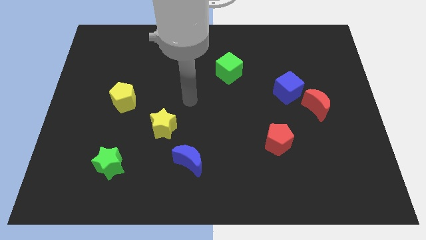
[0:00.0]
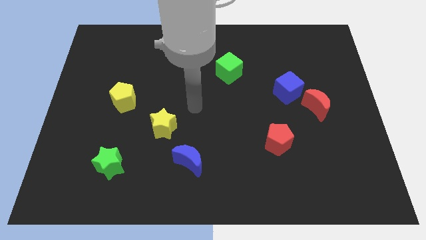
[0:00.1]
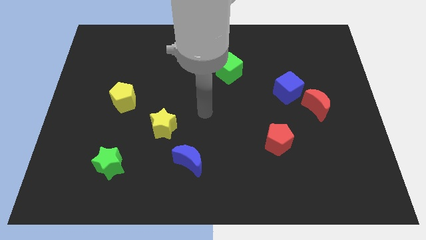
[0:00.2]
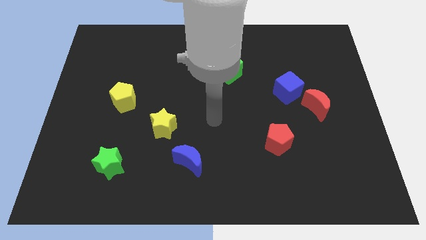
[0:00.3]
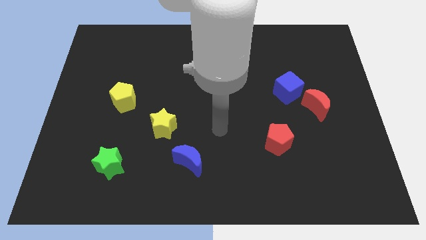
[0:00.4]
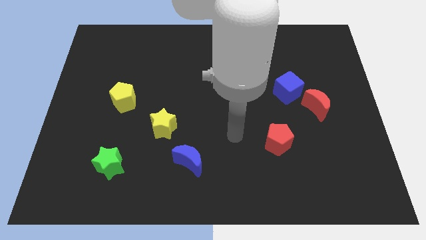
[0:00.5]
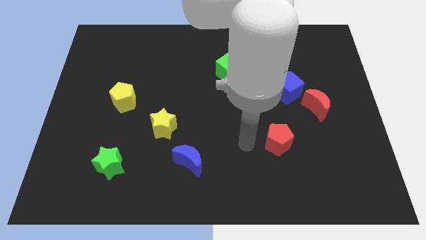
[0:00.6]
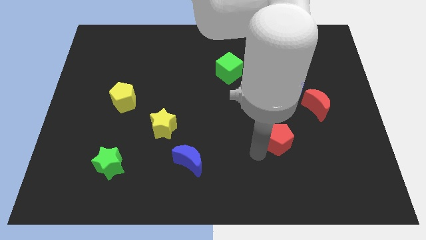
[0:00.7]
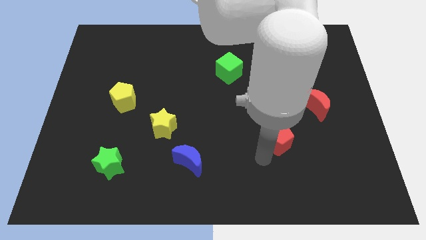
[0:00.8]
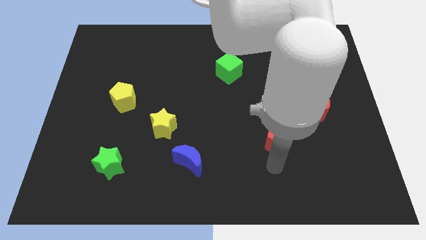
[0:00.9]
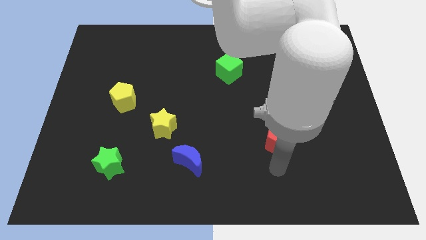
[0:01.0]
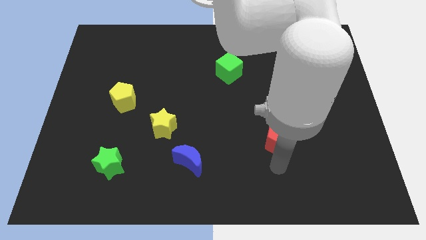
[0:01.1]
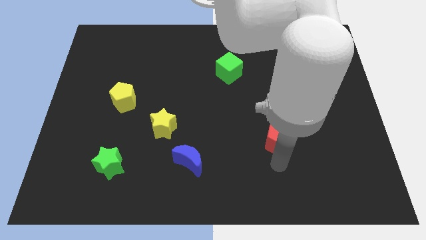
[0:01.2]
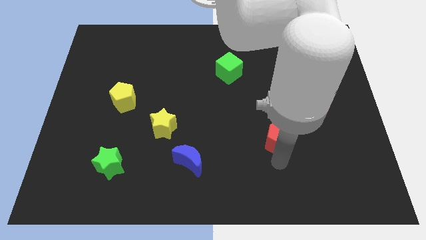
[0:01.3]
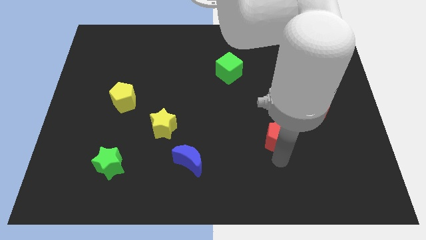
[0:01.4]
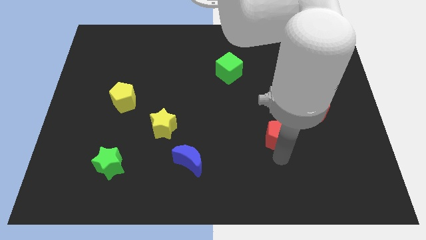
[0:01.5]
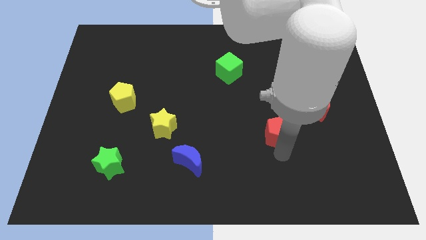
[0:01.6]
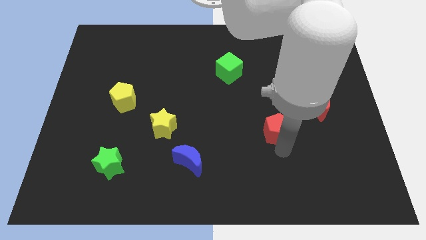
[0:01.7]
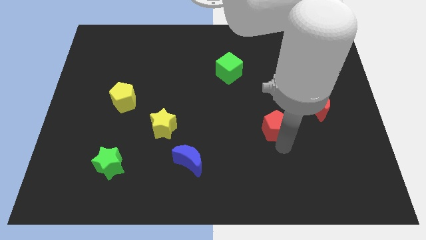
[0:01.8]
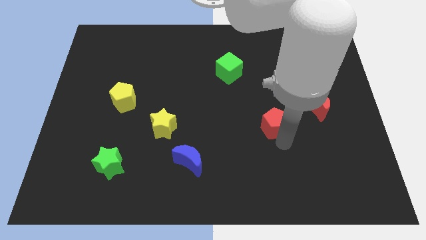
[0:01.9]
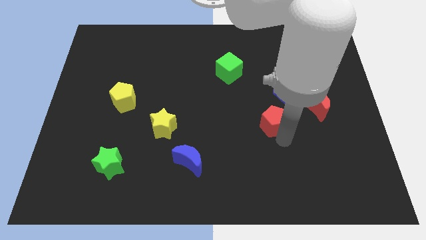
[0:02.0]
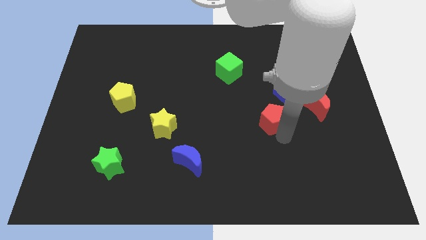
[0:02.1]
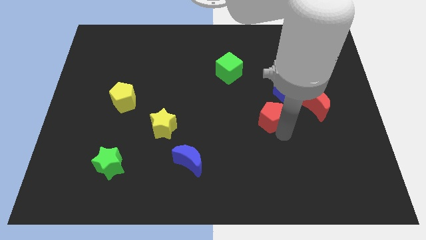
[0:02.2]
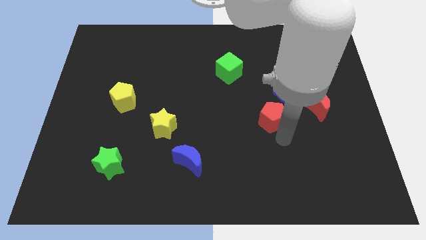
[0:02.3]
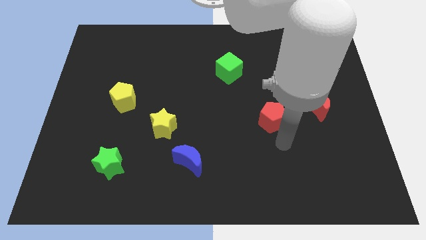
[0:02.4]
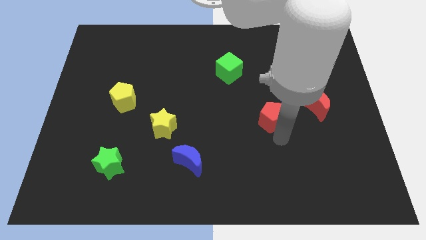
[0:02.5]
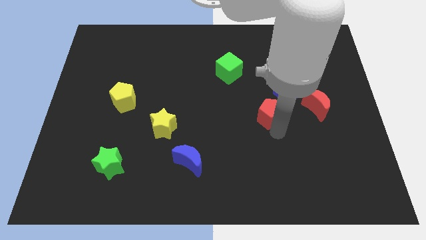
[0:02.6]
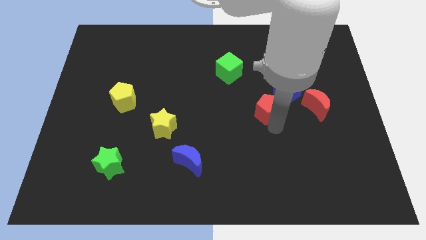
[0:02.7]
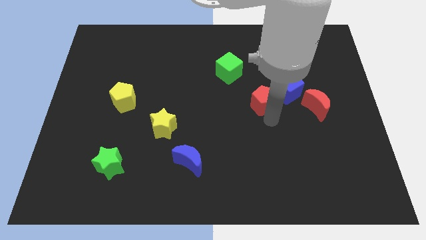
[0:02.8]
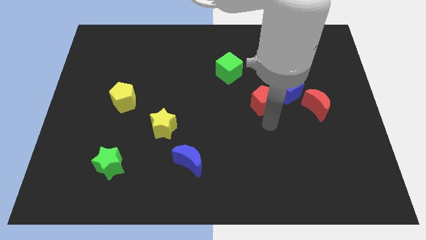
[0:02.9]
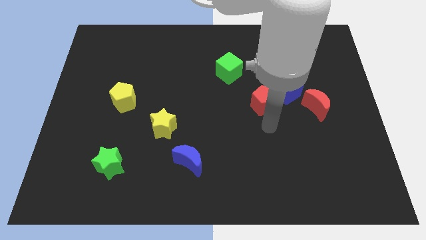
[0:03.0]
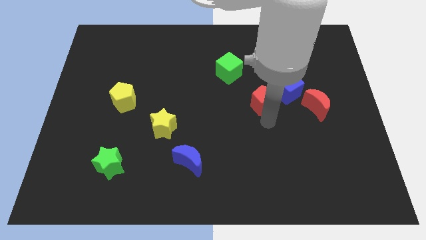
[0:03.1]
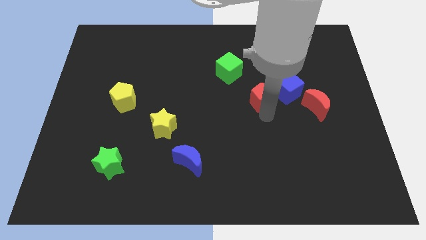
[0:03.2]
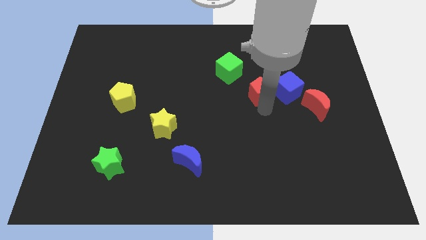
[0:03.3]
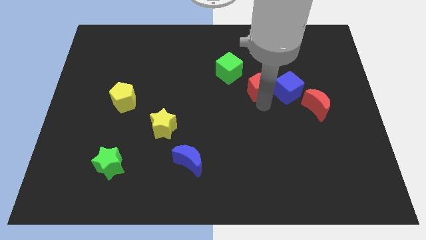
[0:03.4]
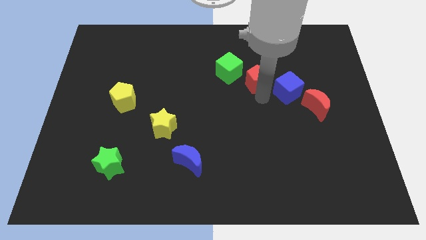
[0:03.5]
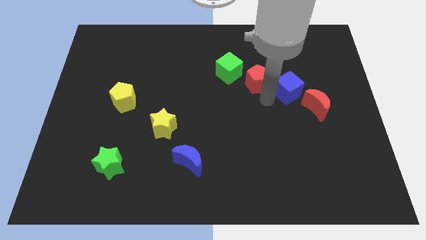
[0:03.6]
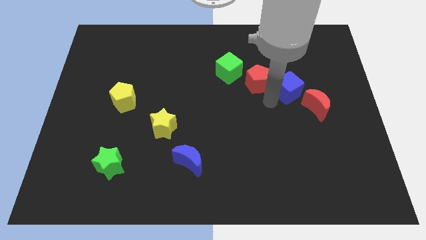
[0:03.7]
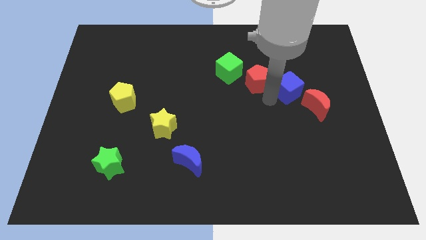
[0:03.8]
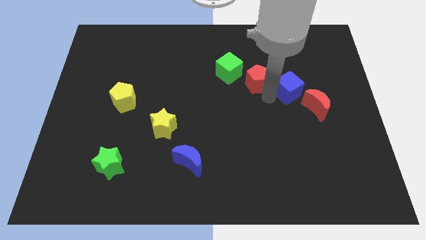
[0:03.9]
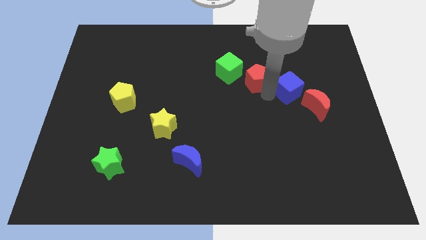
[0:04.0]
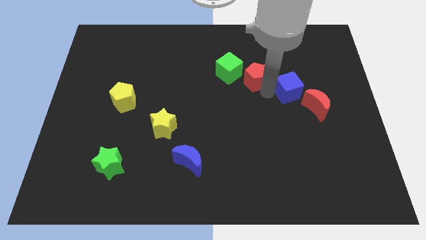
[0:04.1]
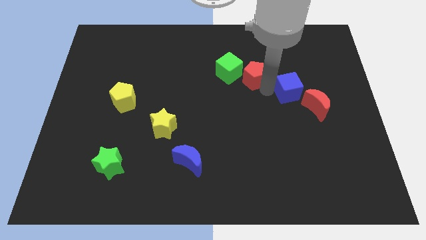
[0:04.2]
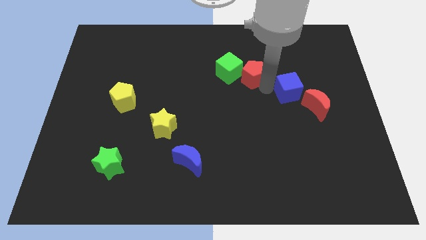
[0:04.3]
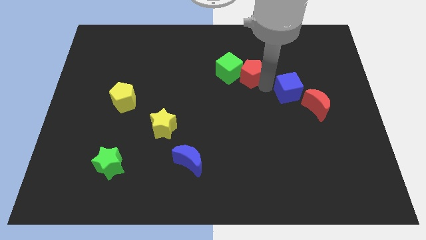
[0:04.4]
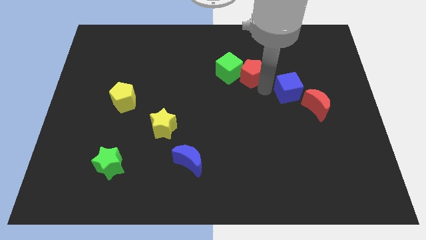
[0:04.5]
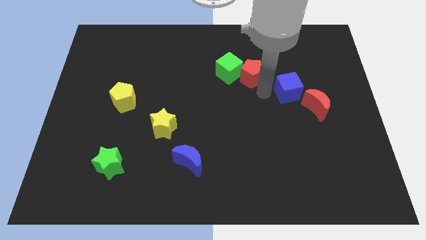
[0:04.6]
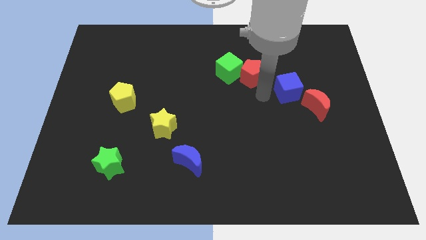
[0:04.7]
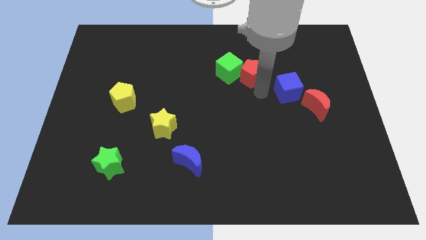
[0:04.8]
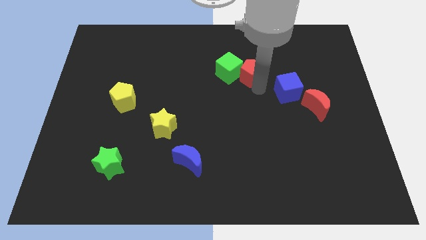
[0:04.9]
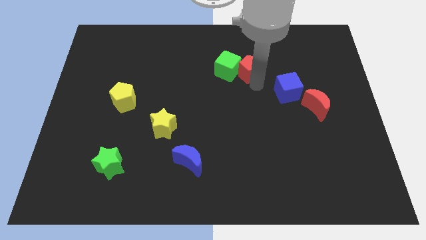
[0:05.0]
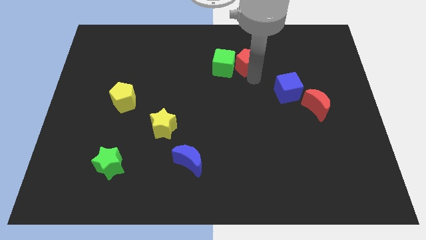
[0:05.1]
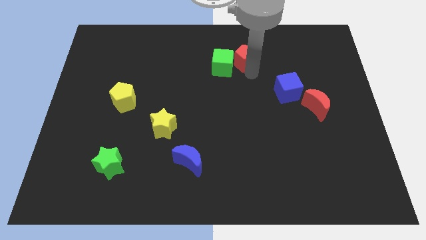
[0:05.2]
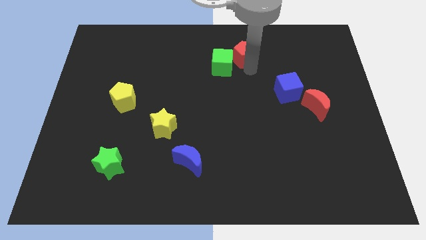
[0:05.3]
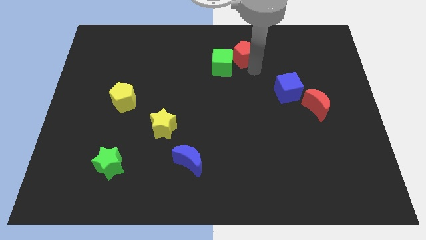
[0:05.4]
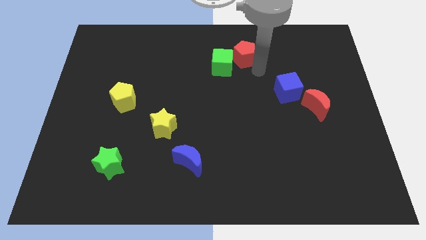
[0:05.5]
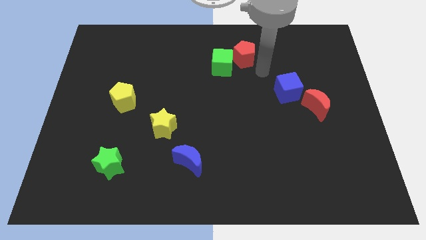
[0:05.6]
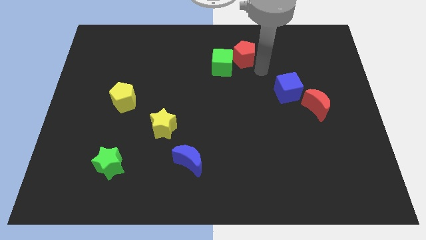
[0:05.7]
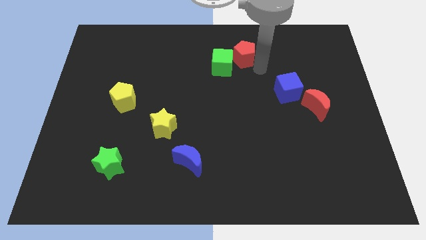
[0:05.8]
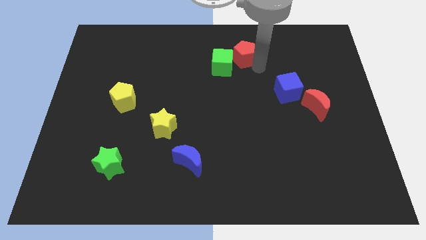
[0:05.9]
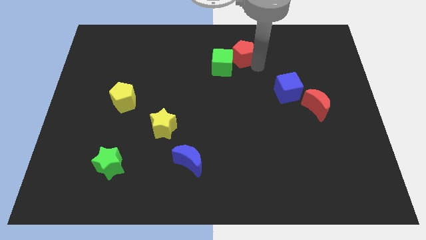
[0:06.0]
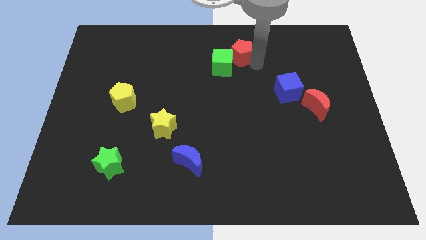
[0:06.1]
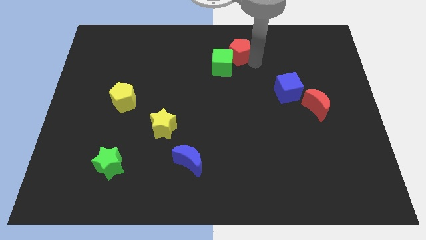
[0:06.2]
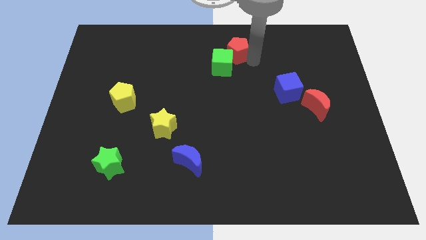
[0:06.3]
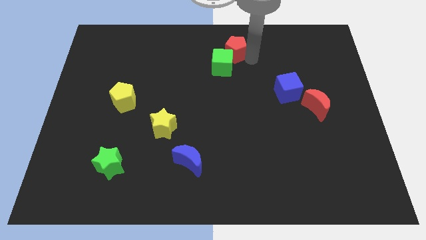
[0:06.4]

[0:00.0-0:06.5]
move the red pentagon to the towards your base
